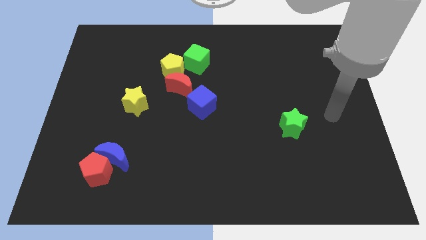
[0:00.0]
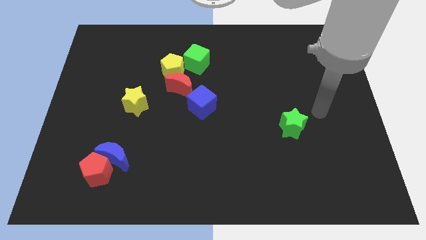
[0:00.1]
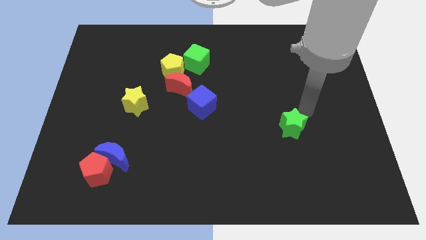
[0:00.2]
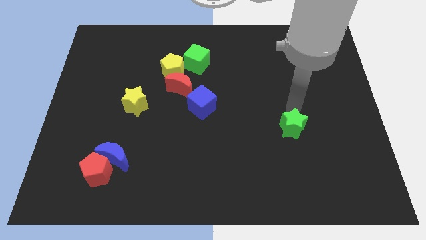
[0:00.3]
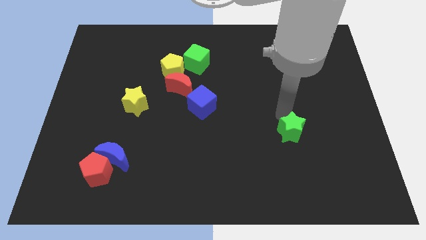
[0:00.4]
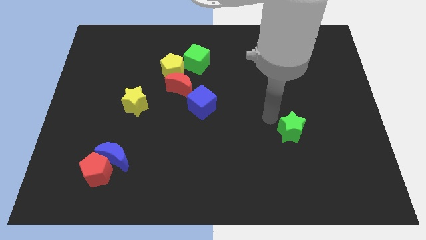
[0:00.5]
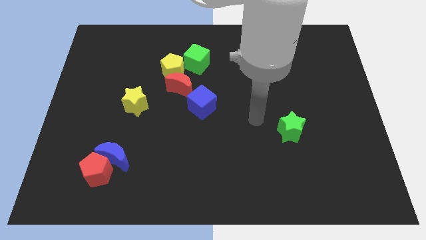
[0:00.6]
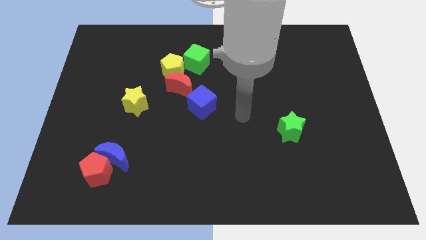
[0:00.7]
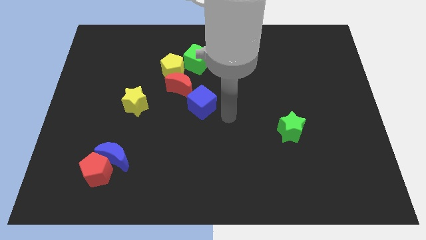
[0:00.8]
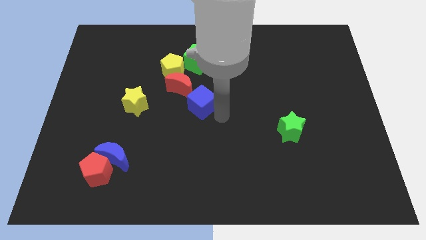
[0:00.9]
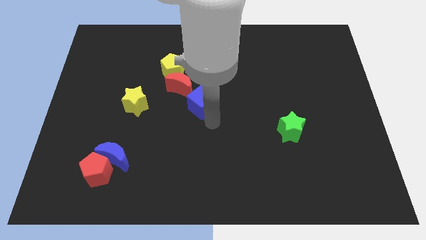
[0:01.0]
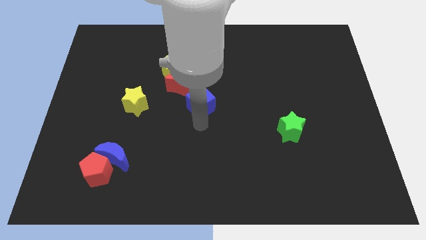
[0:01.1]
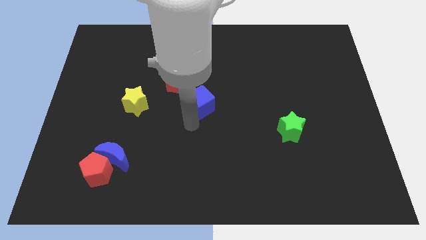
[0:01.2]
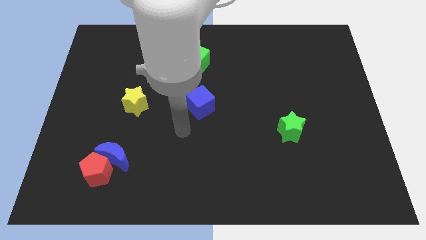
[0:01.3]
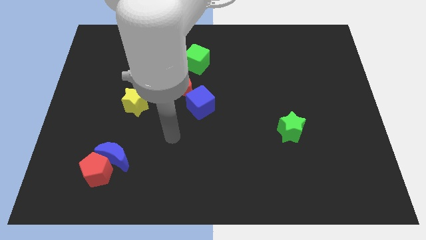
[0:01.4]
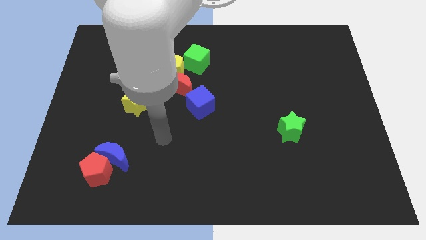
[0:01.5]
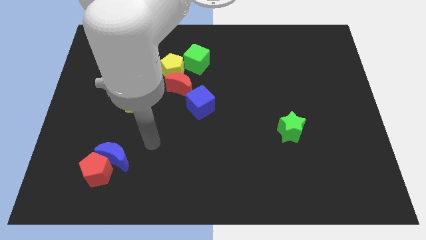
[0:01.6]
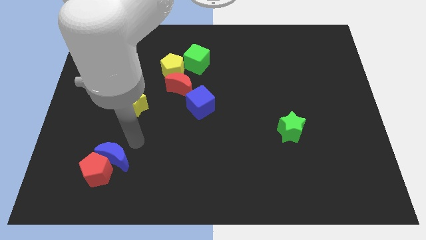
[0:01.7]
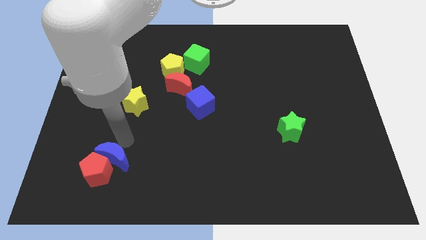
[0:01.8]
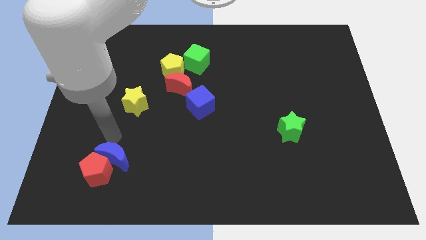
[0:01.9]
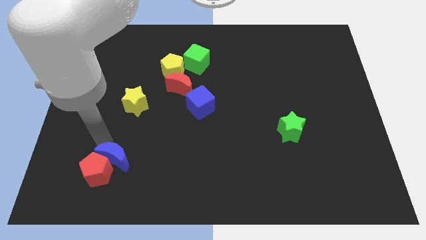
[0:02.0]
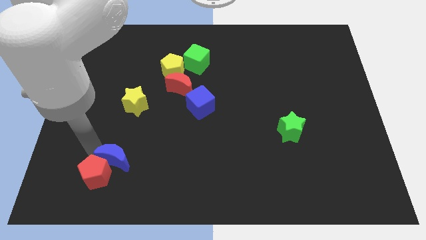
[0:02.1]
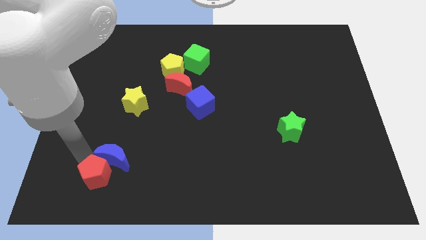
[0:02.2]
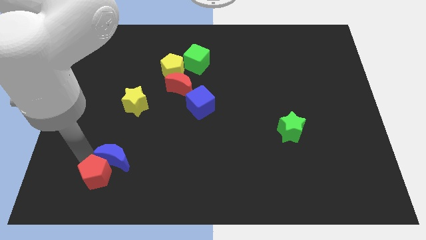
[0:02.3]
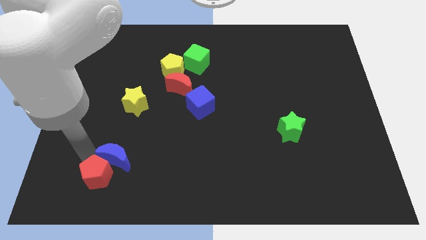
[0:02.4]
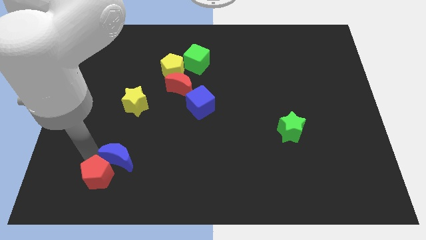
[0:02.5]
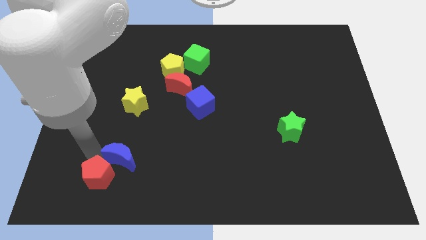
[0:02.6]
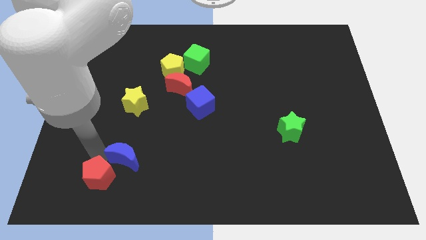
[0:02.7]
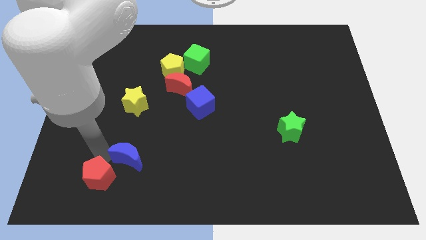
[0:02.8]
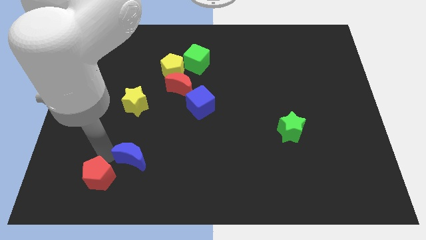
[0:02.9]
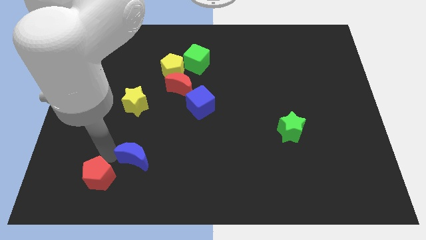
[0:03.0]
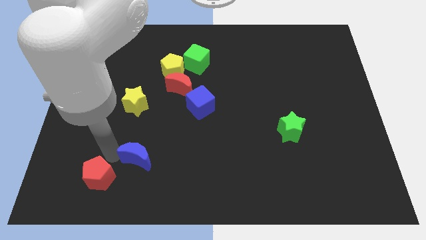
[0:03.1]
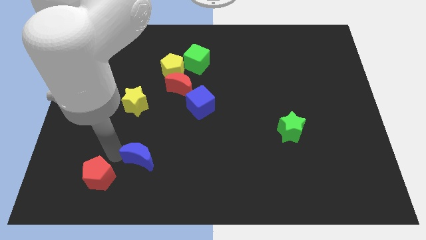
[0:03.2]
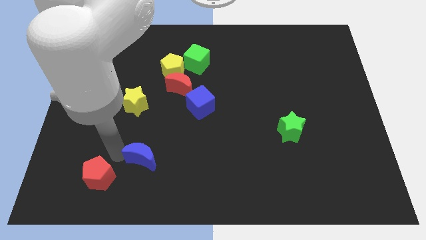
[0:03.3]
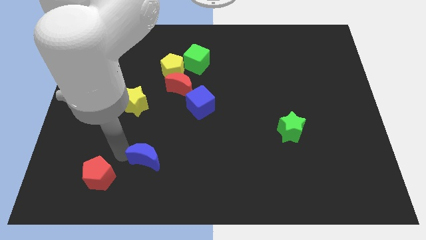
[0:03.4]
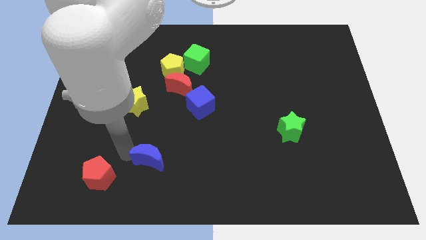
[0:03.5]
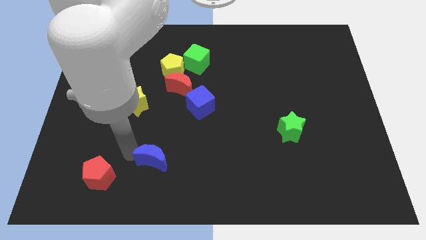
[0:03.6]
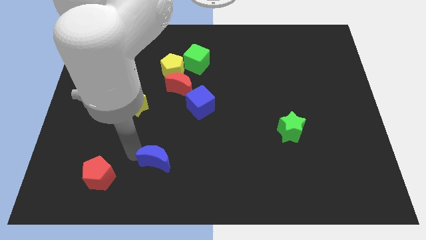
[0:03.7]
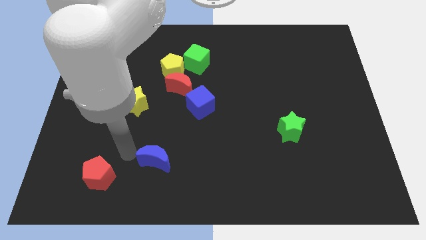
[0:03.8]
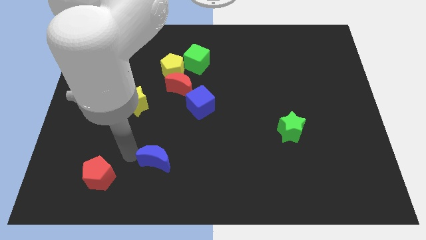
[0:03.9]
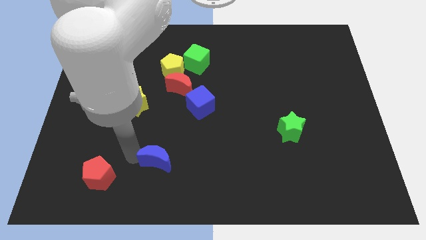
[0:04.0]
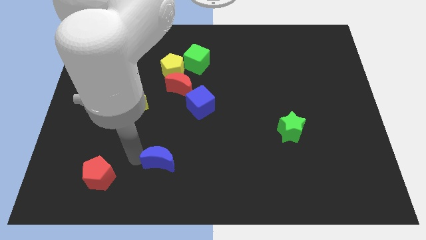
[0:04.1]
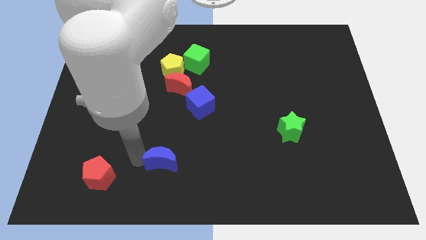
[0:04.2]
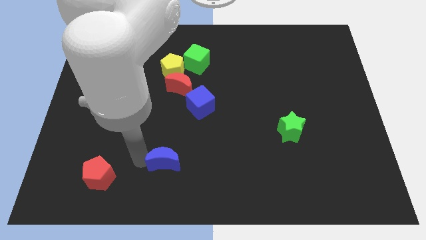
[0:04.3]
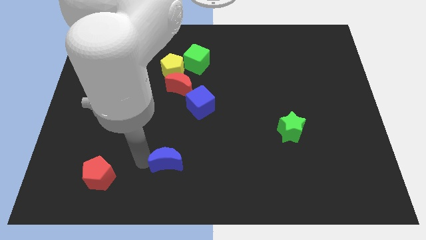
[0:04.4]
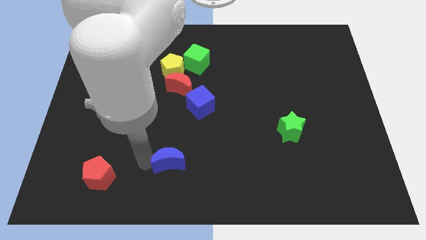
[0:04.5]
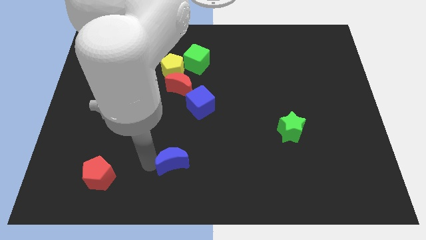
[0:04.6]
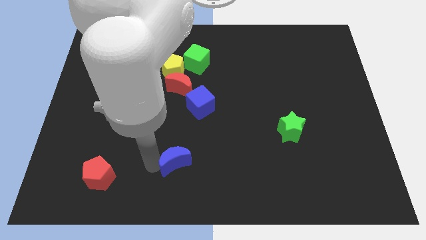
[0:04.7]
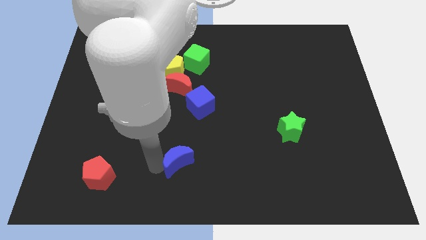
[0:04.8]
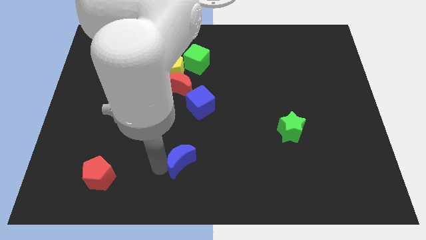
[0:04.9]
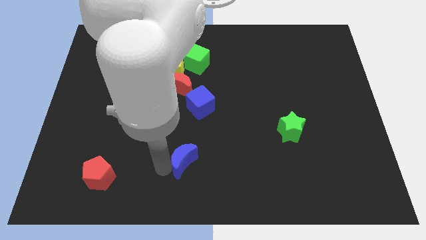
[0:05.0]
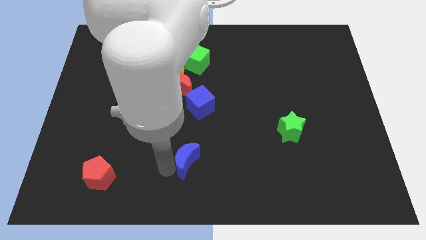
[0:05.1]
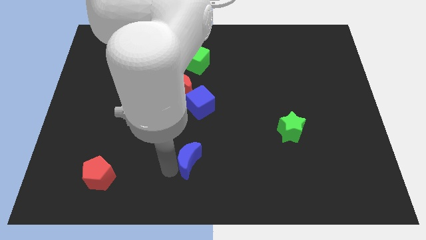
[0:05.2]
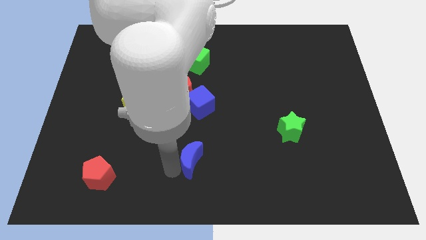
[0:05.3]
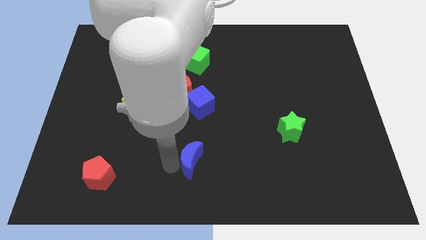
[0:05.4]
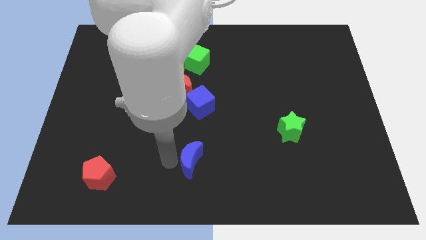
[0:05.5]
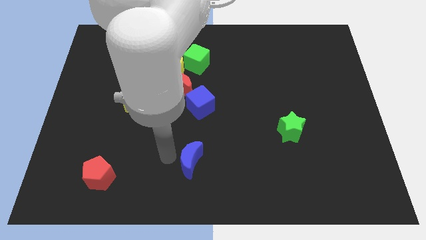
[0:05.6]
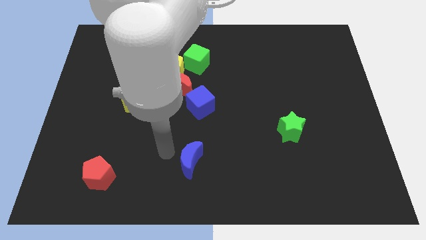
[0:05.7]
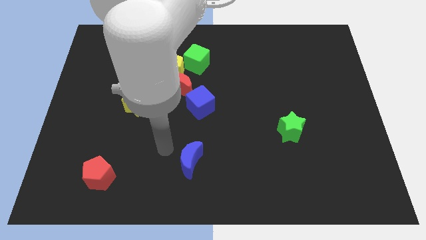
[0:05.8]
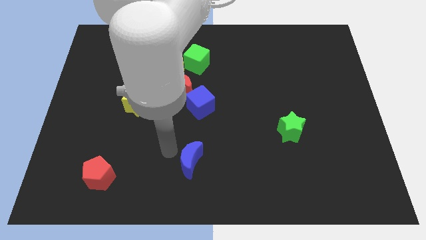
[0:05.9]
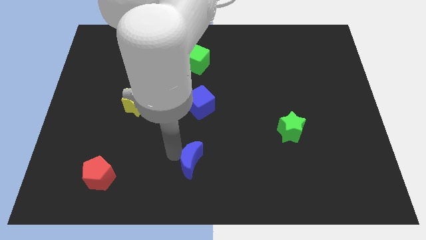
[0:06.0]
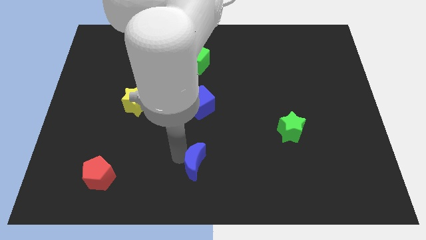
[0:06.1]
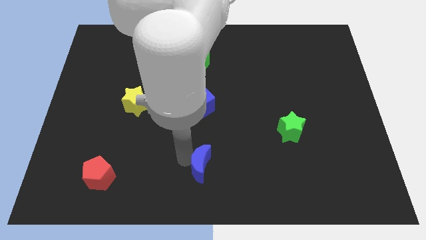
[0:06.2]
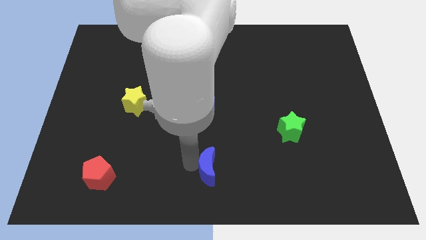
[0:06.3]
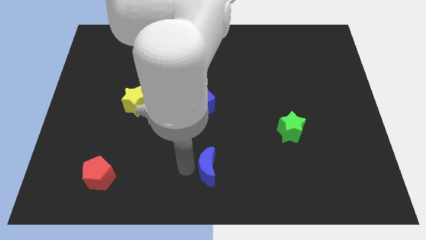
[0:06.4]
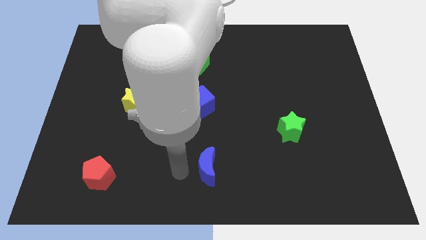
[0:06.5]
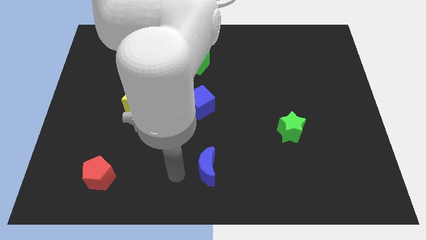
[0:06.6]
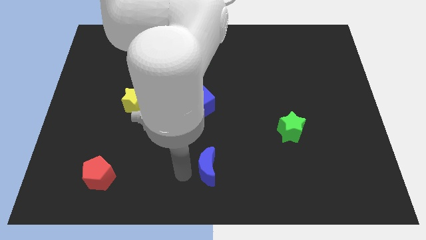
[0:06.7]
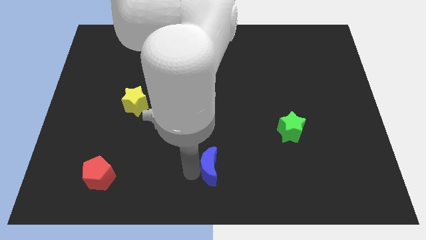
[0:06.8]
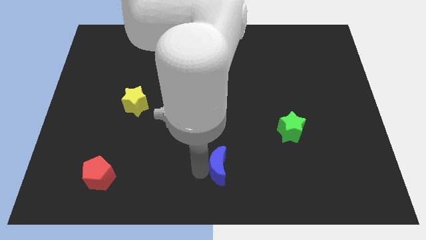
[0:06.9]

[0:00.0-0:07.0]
push the blue moon right

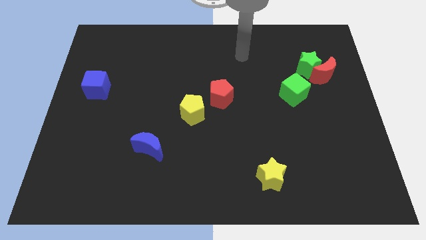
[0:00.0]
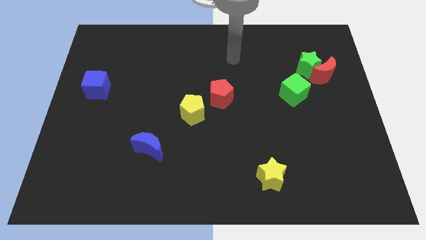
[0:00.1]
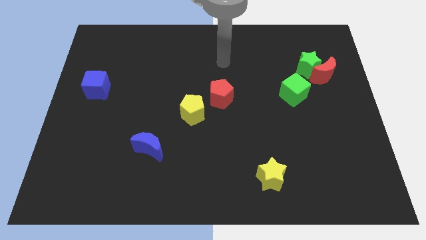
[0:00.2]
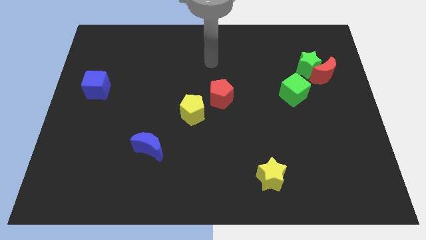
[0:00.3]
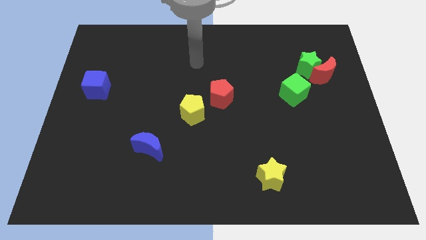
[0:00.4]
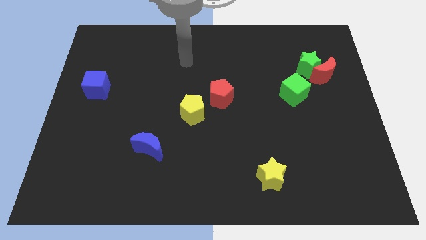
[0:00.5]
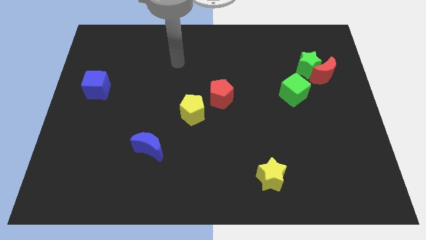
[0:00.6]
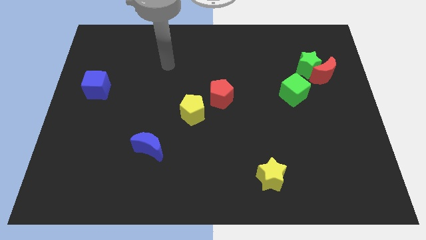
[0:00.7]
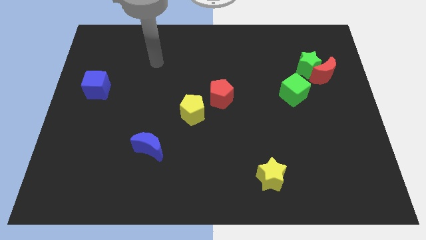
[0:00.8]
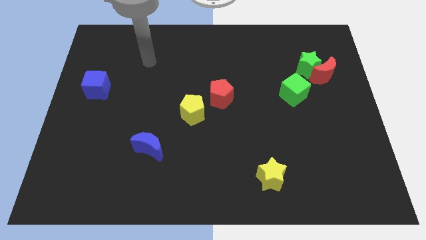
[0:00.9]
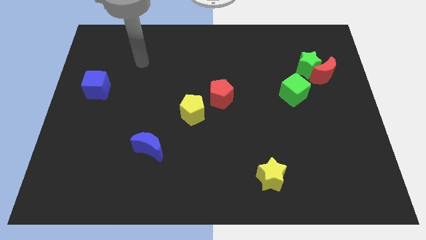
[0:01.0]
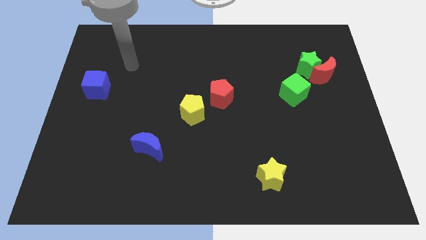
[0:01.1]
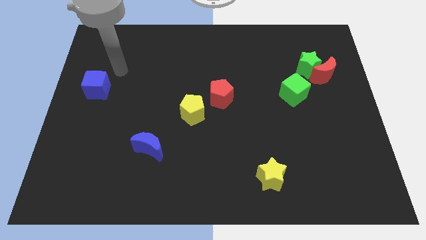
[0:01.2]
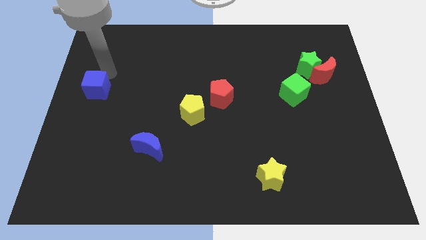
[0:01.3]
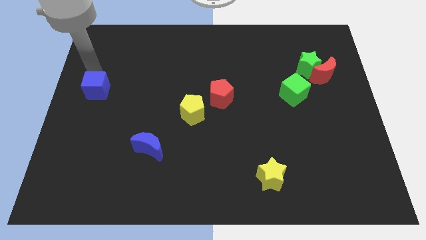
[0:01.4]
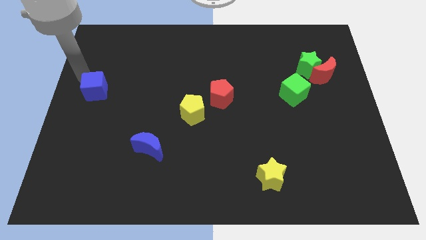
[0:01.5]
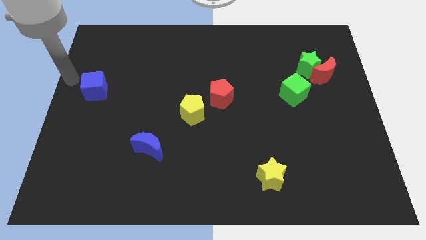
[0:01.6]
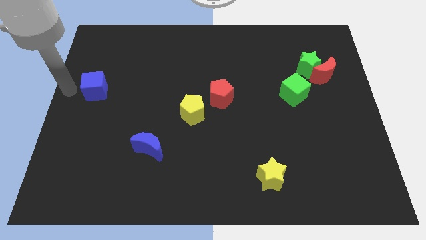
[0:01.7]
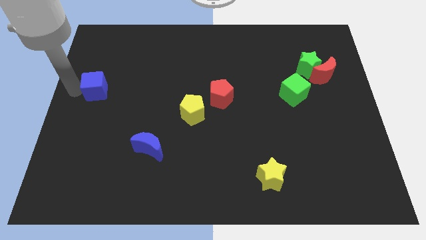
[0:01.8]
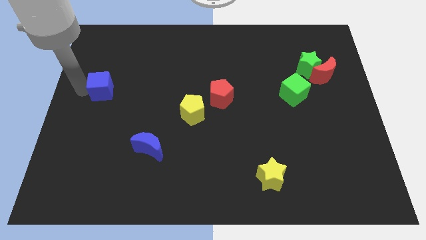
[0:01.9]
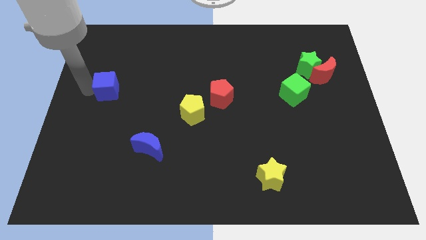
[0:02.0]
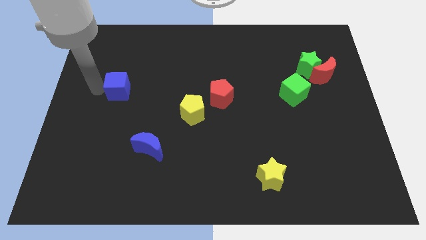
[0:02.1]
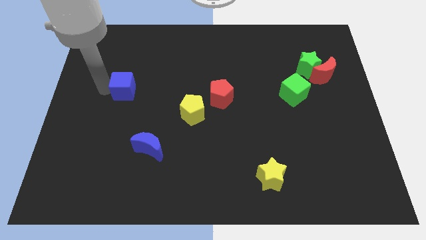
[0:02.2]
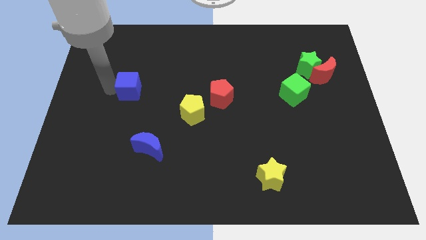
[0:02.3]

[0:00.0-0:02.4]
move the blue cube somewhat right
